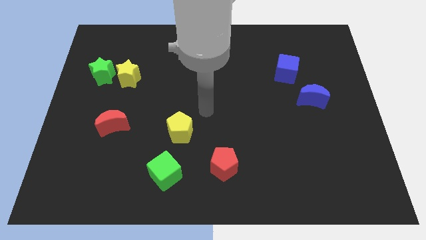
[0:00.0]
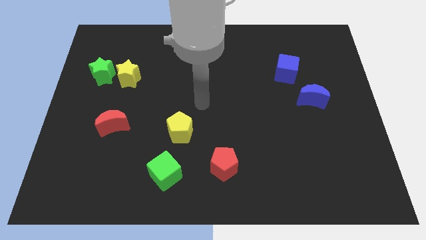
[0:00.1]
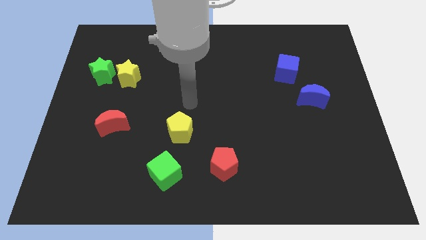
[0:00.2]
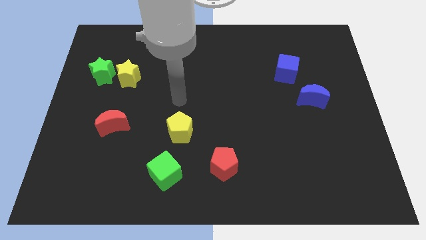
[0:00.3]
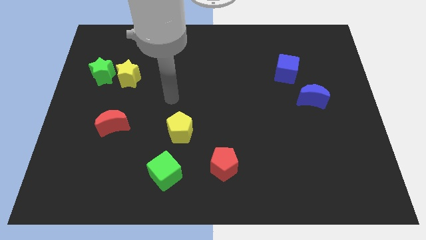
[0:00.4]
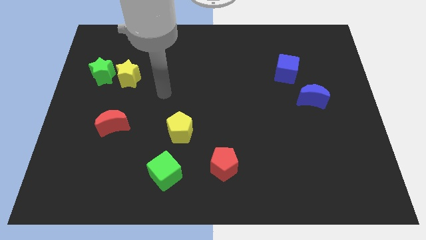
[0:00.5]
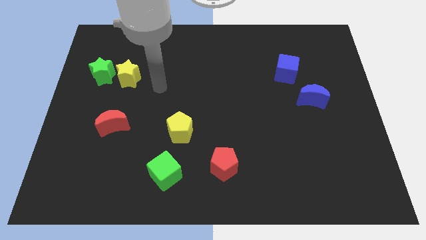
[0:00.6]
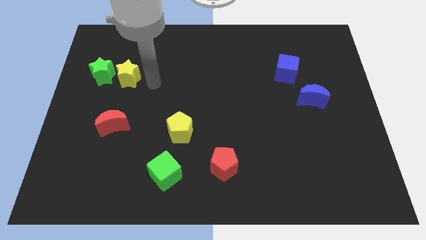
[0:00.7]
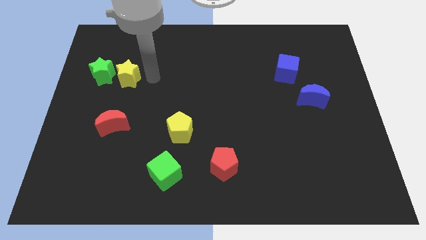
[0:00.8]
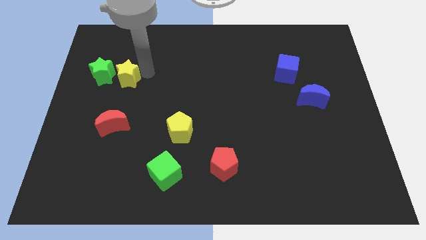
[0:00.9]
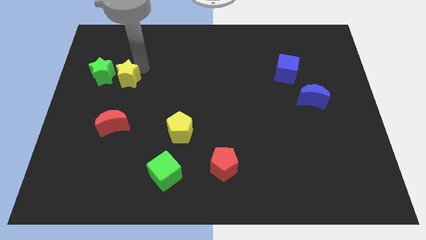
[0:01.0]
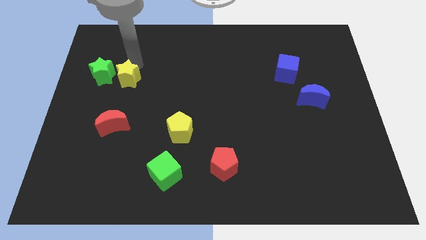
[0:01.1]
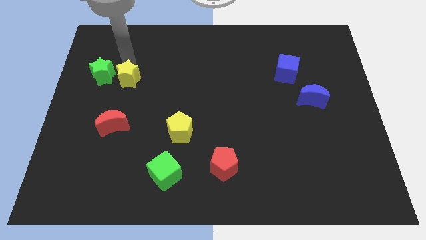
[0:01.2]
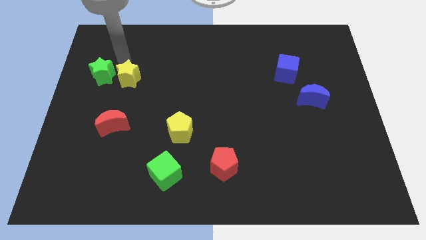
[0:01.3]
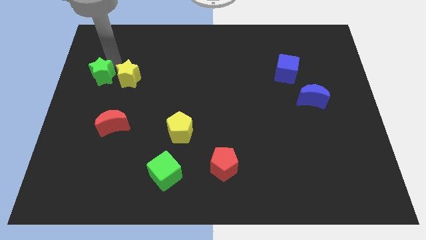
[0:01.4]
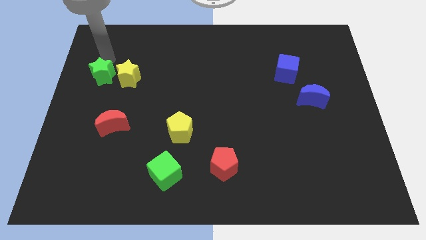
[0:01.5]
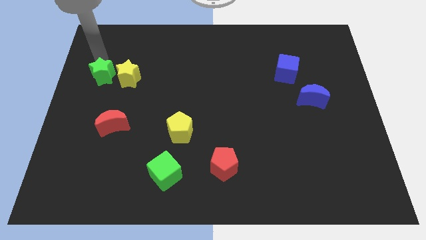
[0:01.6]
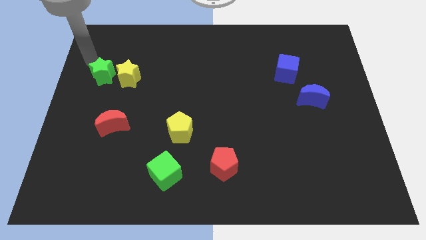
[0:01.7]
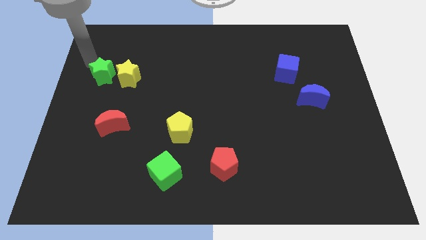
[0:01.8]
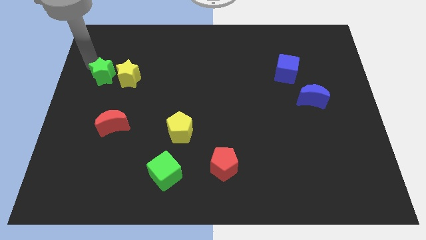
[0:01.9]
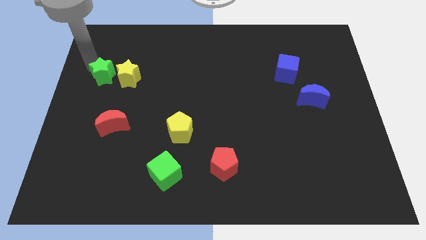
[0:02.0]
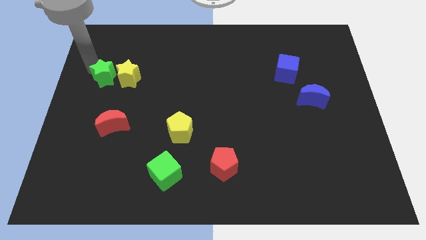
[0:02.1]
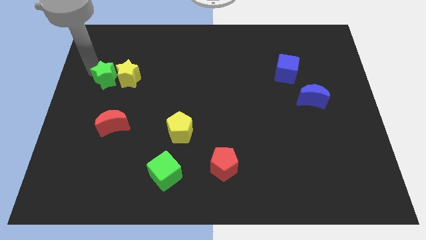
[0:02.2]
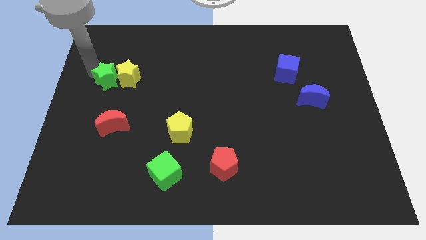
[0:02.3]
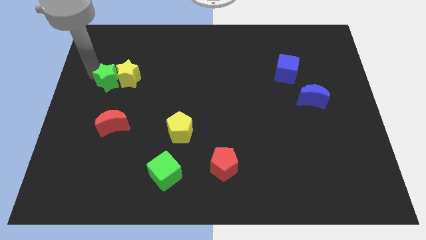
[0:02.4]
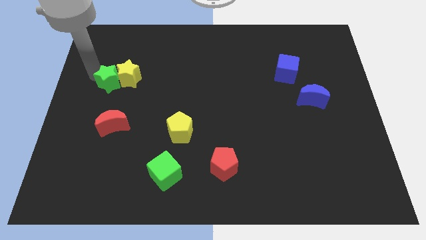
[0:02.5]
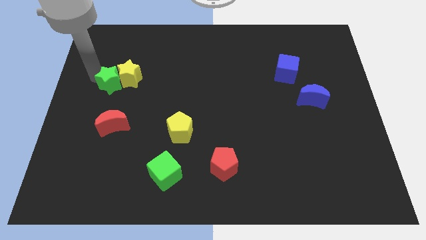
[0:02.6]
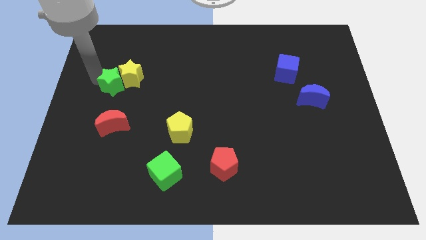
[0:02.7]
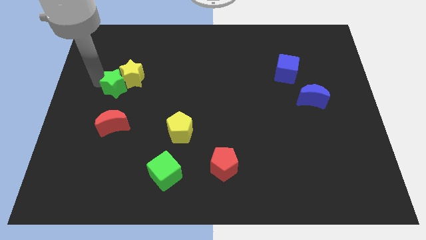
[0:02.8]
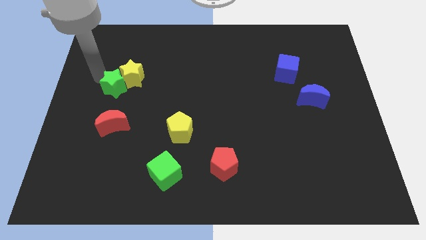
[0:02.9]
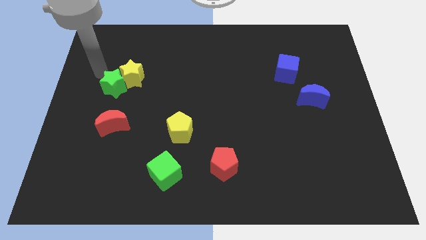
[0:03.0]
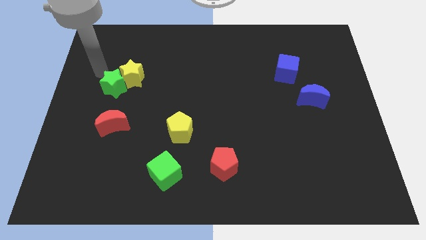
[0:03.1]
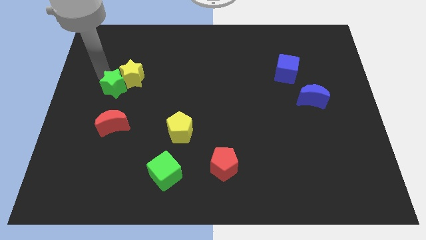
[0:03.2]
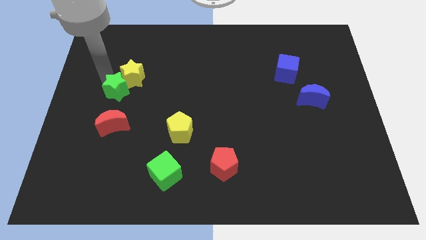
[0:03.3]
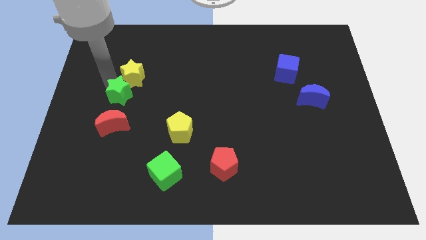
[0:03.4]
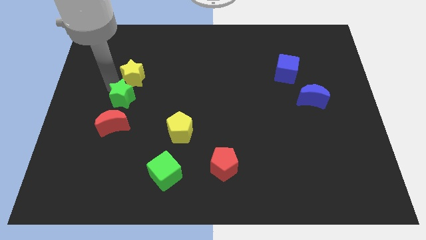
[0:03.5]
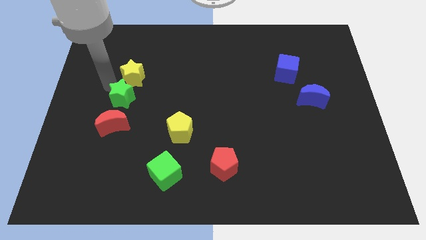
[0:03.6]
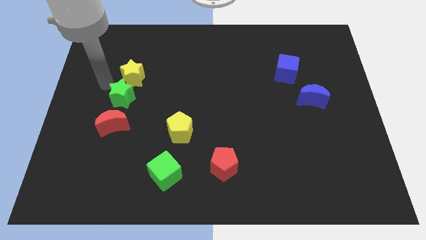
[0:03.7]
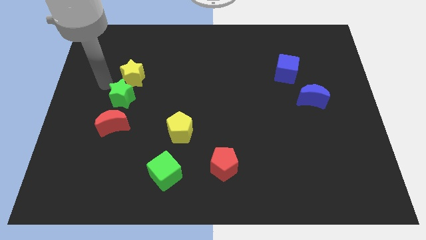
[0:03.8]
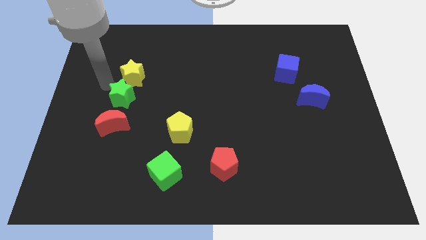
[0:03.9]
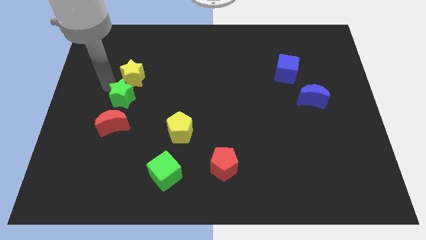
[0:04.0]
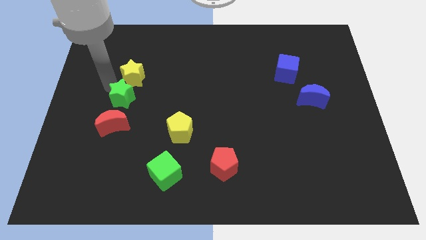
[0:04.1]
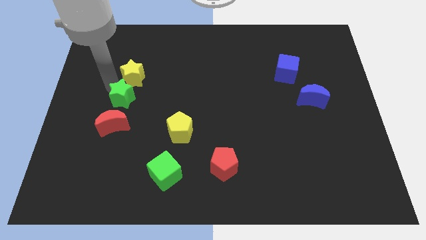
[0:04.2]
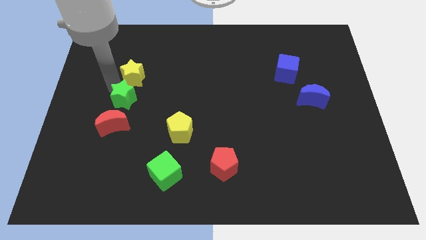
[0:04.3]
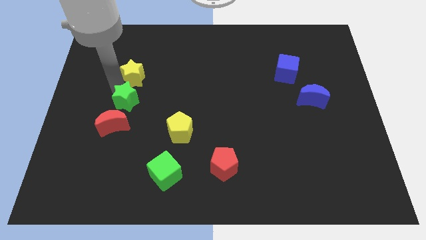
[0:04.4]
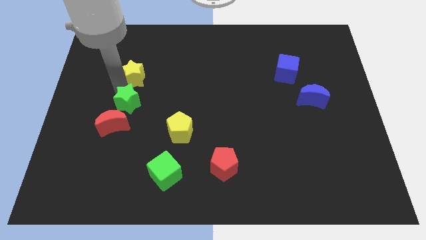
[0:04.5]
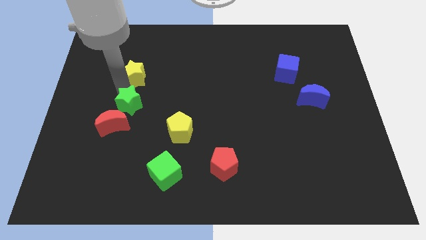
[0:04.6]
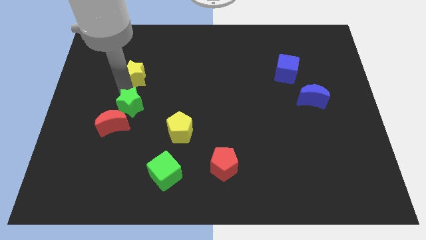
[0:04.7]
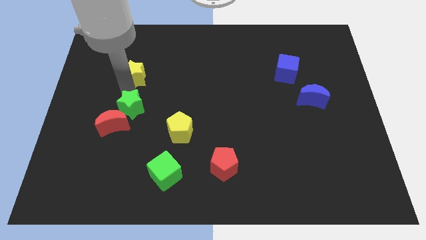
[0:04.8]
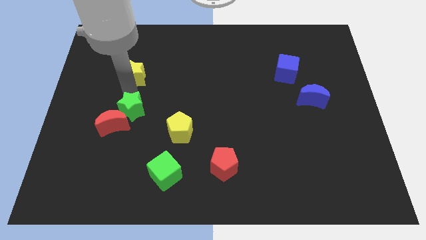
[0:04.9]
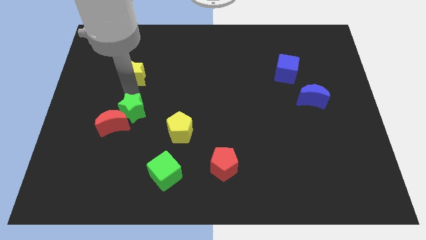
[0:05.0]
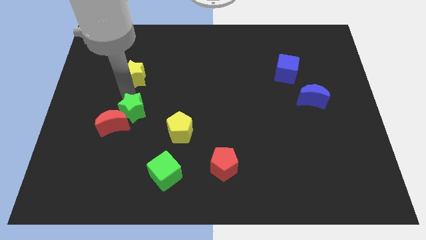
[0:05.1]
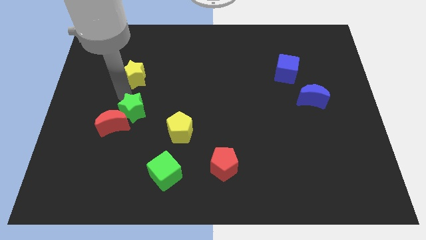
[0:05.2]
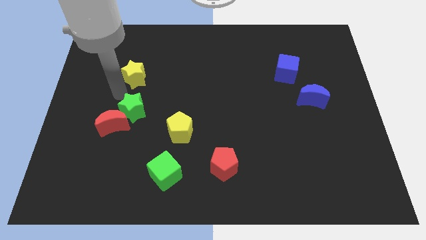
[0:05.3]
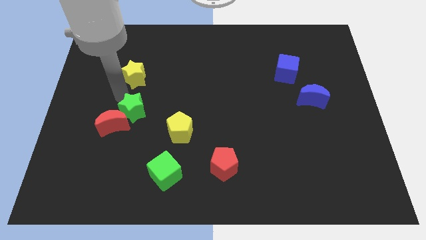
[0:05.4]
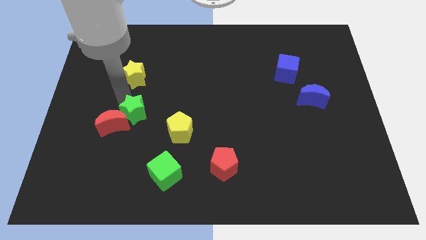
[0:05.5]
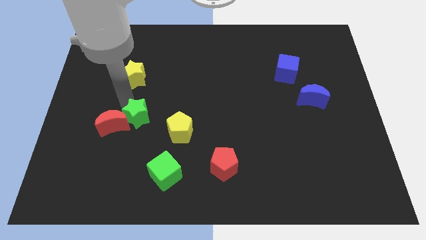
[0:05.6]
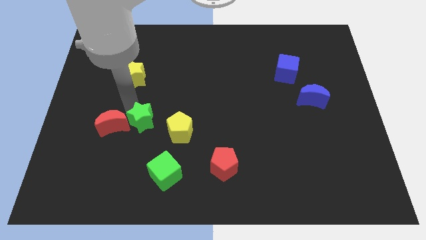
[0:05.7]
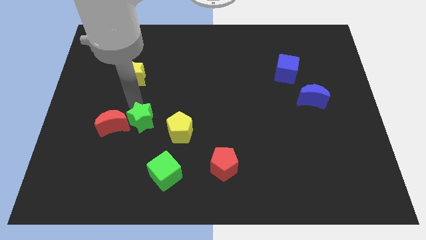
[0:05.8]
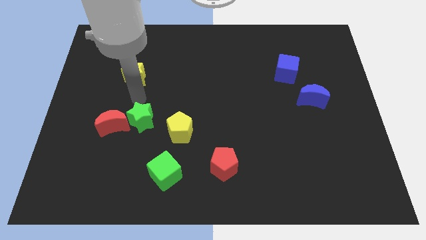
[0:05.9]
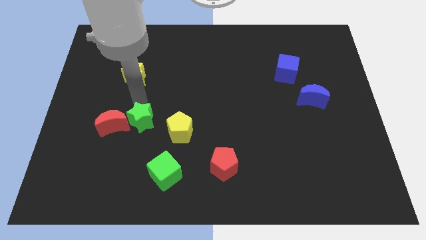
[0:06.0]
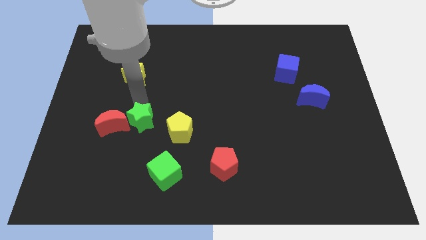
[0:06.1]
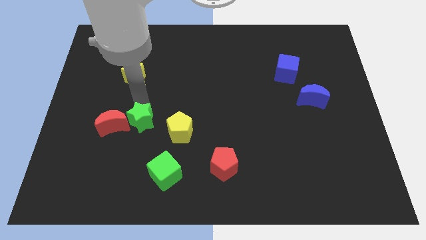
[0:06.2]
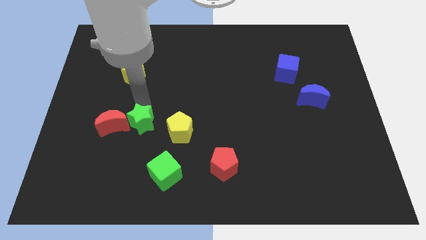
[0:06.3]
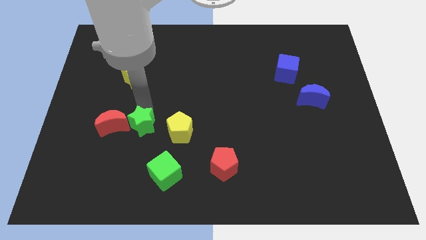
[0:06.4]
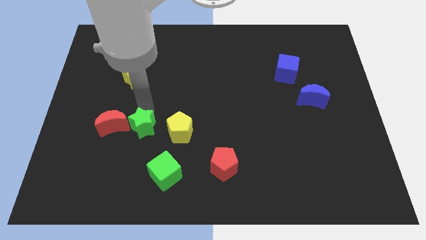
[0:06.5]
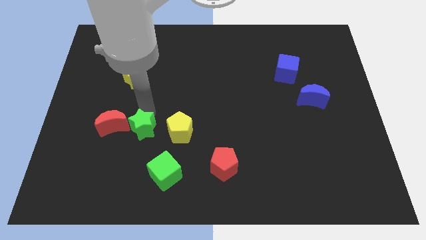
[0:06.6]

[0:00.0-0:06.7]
slide the green star down and right

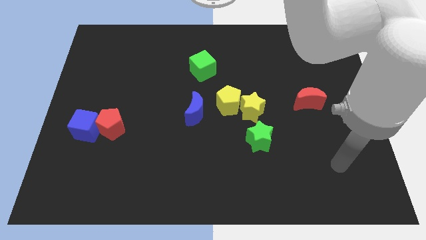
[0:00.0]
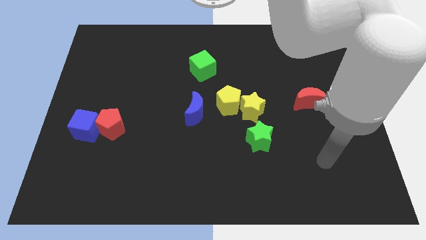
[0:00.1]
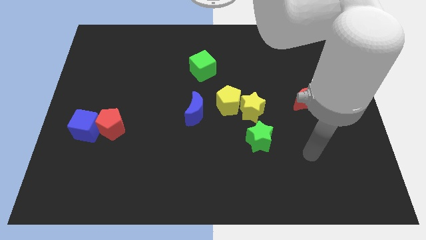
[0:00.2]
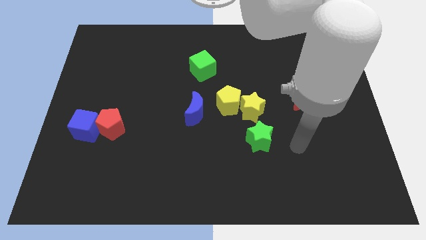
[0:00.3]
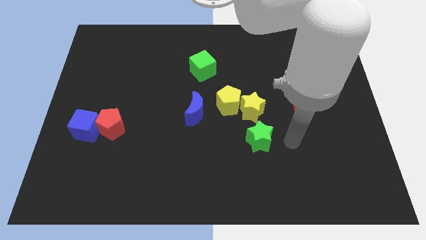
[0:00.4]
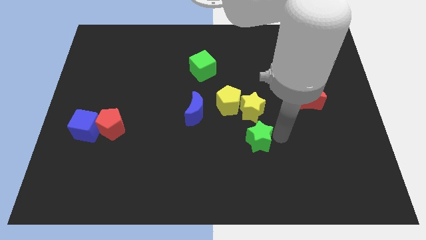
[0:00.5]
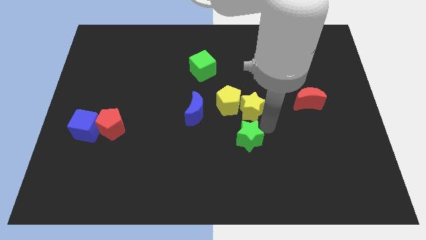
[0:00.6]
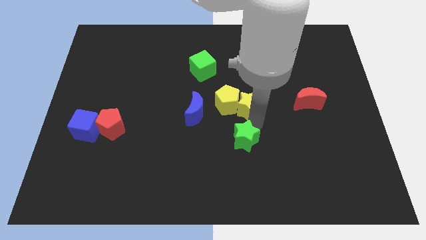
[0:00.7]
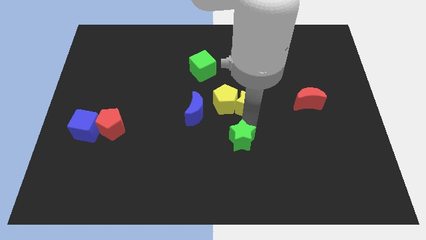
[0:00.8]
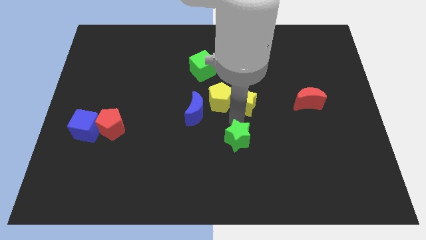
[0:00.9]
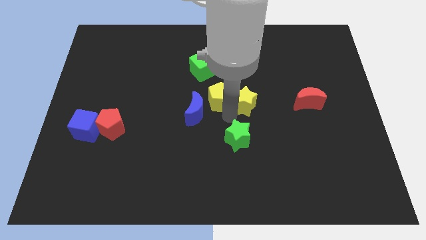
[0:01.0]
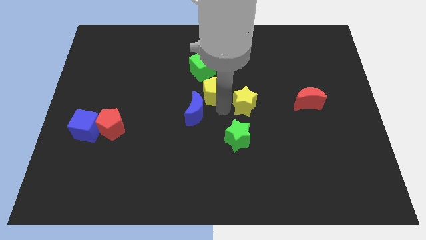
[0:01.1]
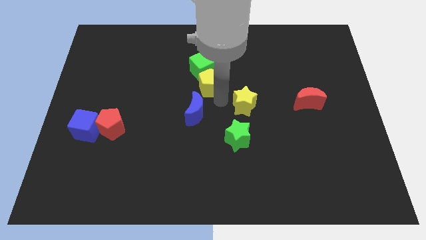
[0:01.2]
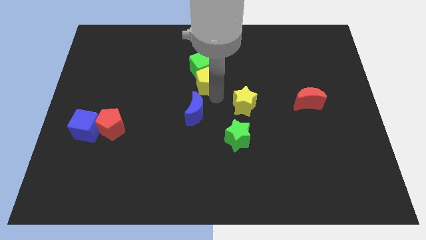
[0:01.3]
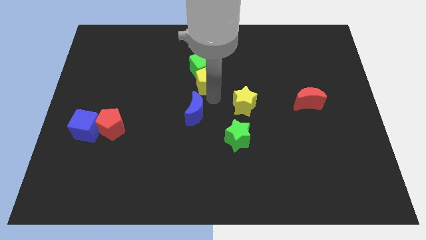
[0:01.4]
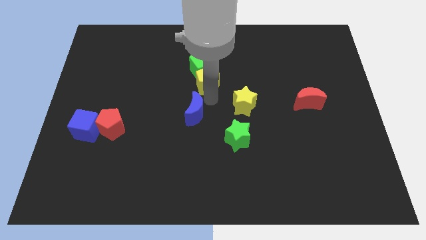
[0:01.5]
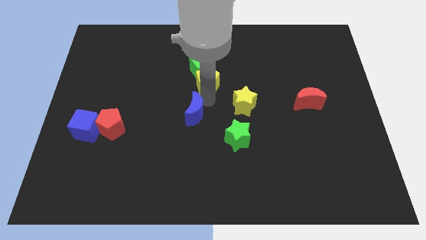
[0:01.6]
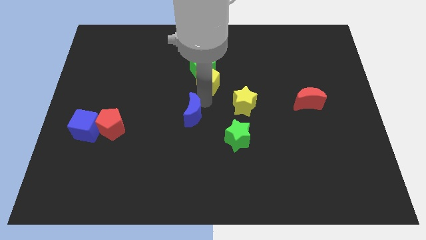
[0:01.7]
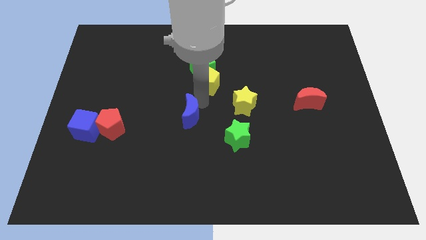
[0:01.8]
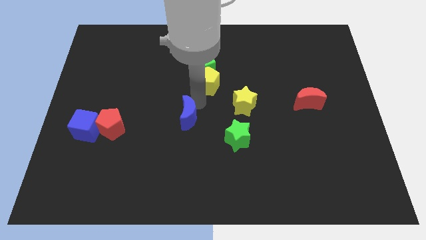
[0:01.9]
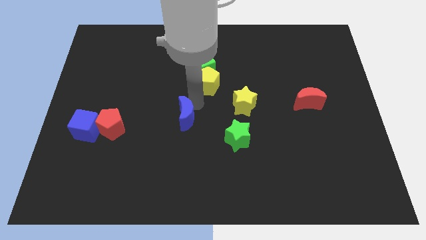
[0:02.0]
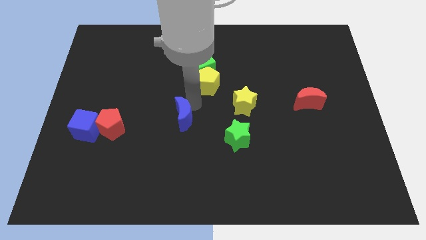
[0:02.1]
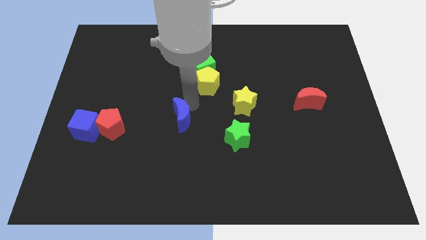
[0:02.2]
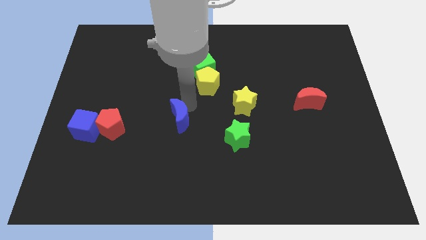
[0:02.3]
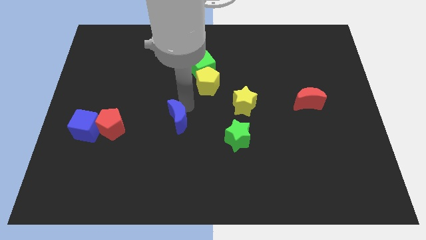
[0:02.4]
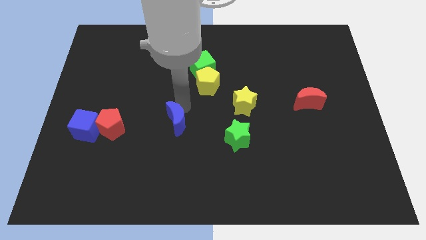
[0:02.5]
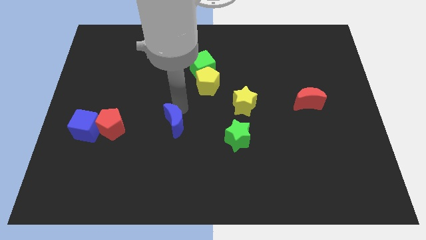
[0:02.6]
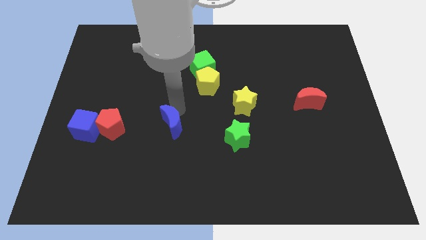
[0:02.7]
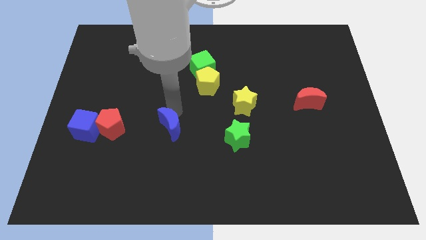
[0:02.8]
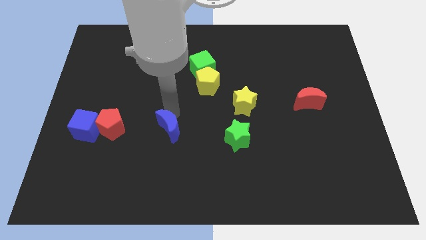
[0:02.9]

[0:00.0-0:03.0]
slightly push the blue moon downwards and left
